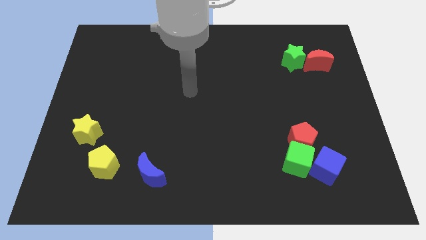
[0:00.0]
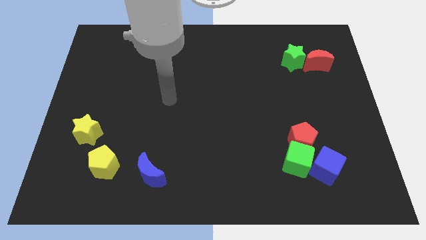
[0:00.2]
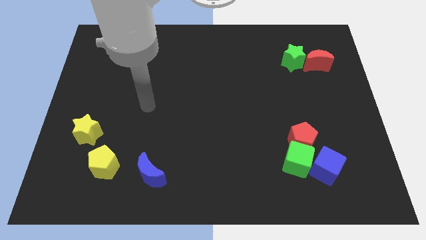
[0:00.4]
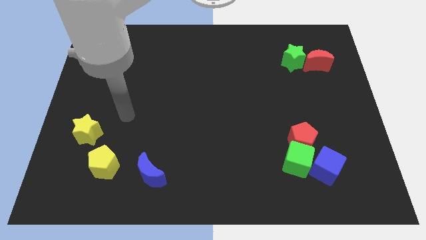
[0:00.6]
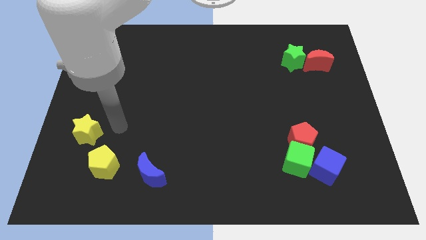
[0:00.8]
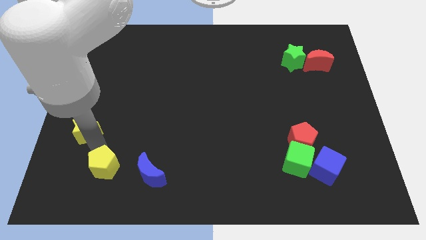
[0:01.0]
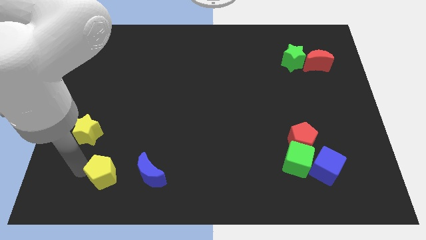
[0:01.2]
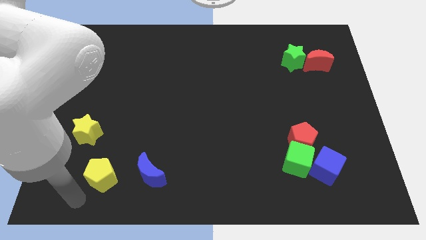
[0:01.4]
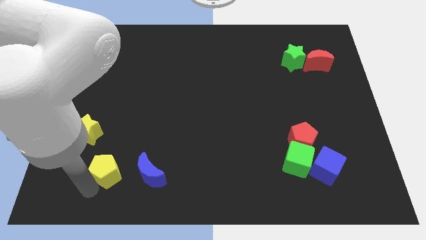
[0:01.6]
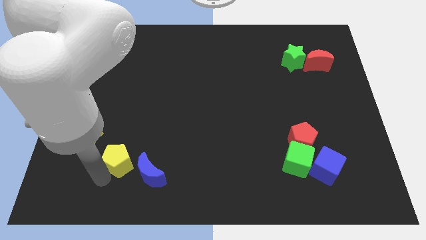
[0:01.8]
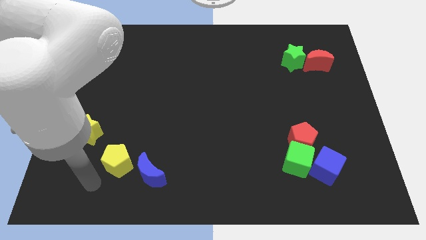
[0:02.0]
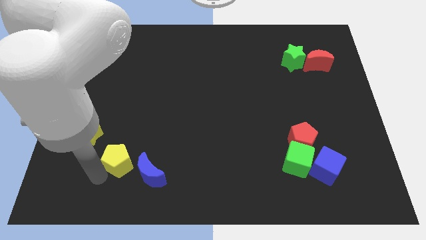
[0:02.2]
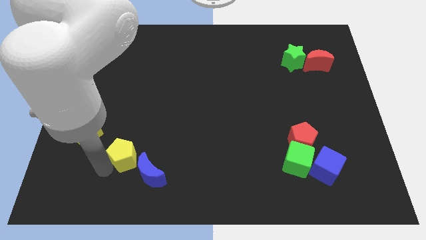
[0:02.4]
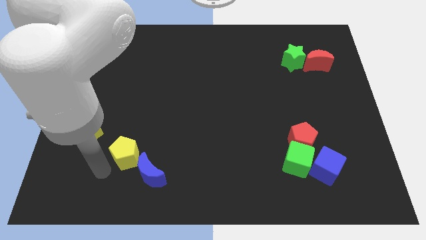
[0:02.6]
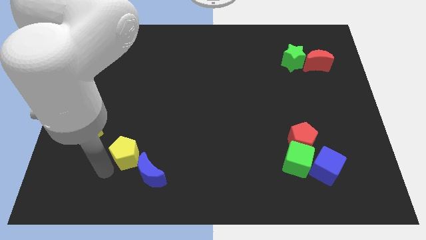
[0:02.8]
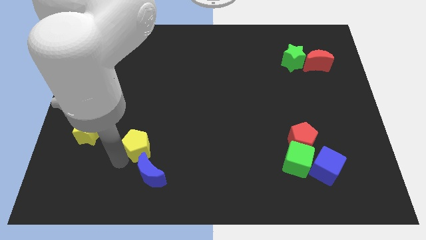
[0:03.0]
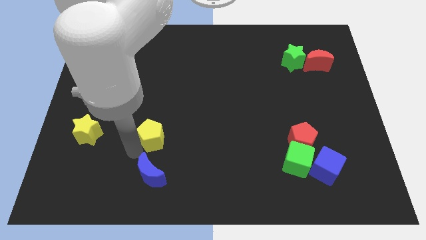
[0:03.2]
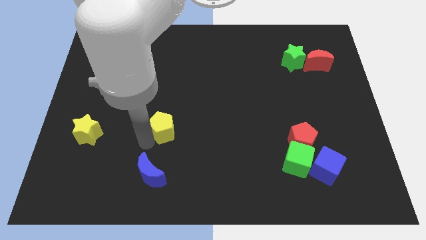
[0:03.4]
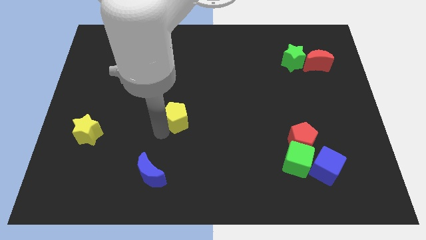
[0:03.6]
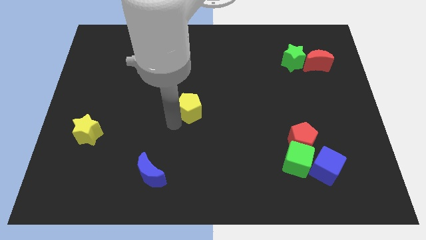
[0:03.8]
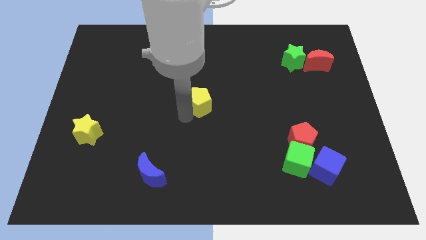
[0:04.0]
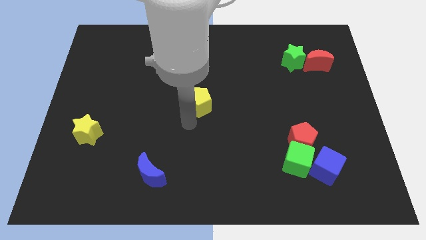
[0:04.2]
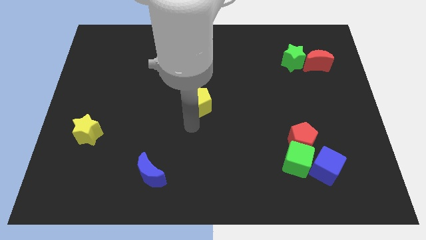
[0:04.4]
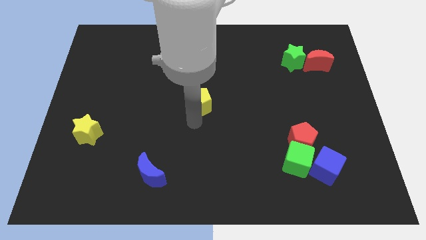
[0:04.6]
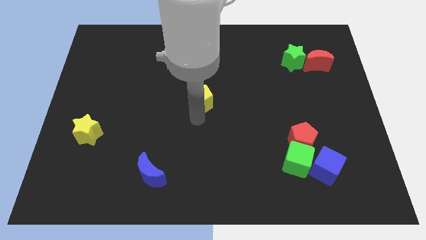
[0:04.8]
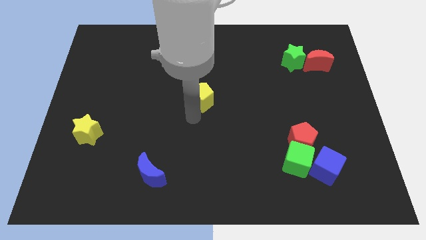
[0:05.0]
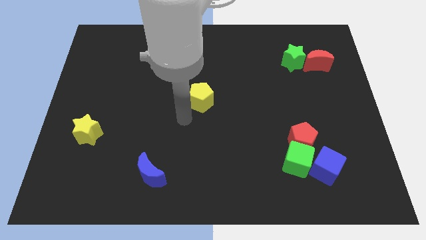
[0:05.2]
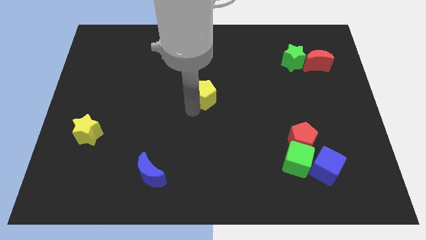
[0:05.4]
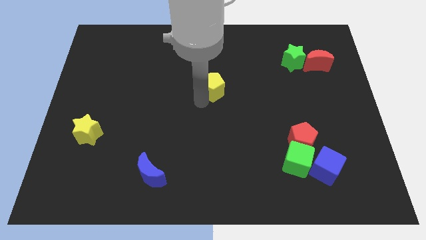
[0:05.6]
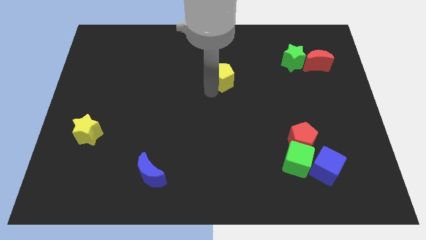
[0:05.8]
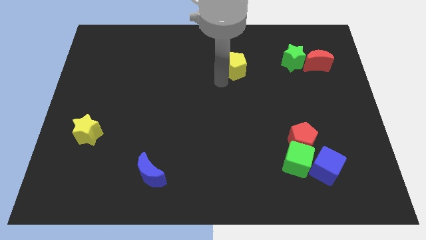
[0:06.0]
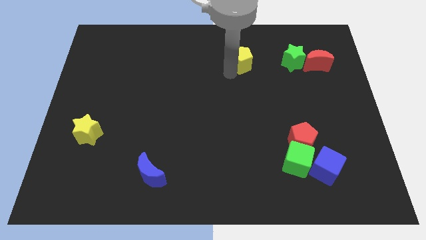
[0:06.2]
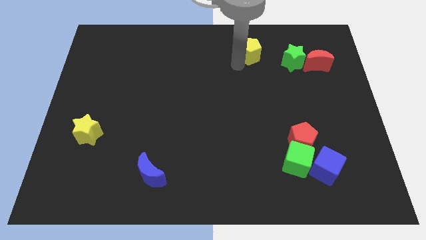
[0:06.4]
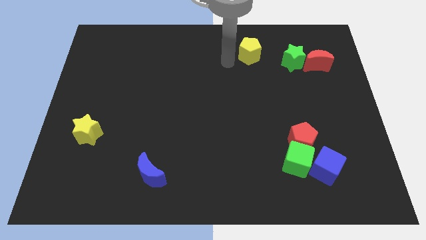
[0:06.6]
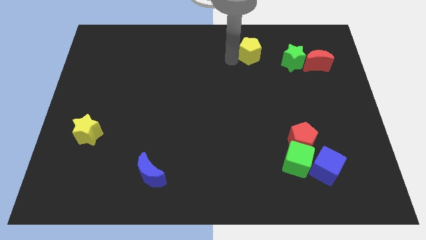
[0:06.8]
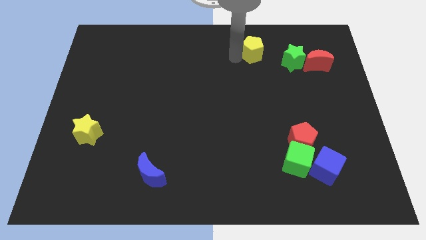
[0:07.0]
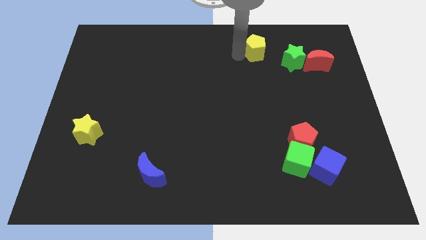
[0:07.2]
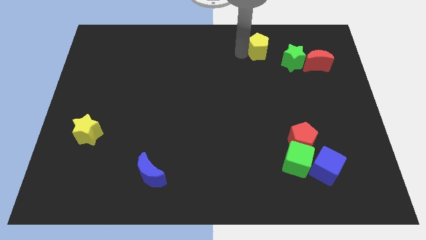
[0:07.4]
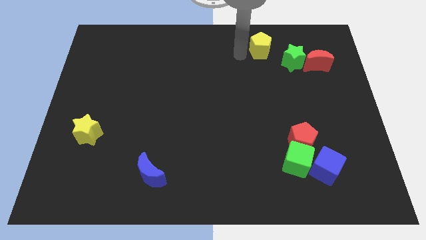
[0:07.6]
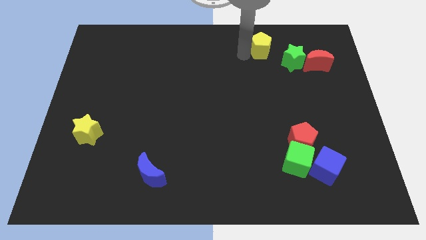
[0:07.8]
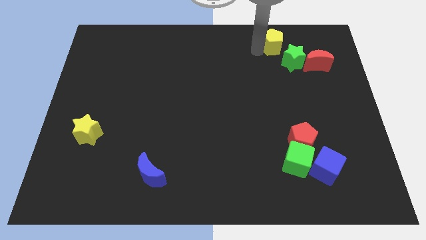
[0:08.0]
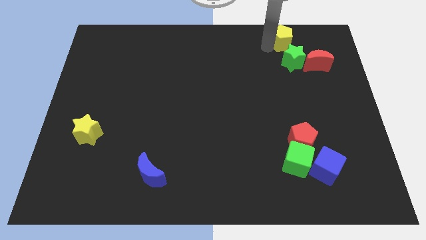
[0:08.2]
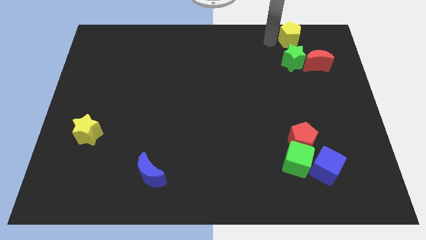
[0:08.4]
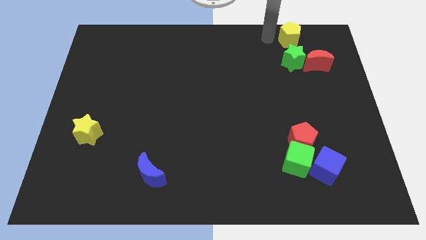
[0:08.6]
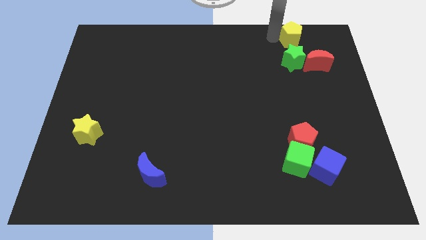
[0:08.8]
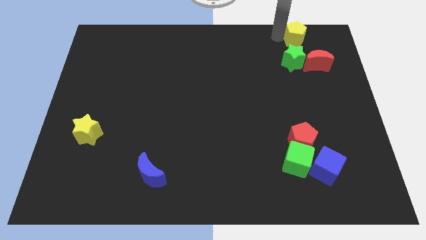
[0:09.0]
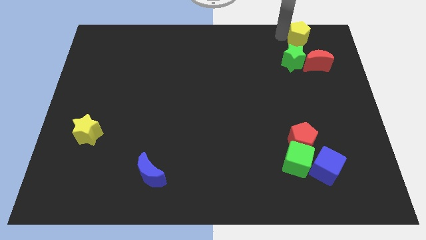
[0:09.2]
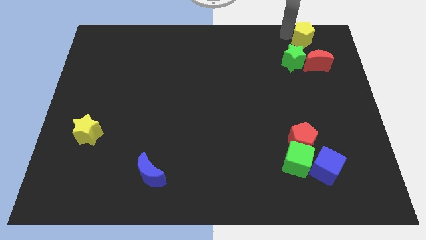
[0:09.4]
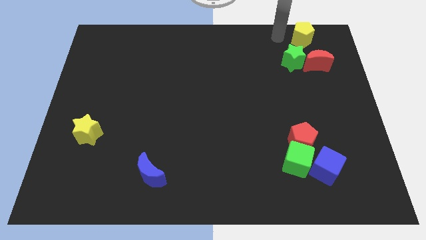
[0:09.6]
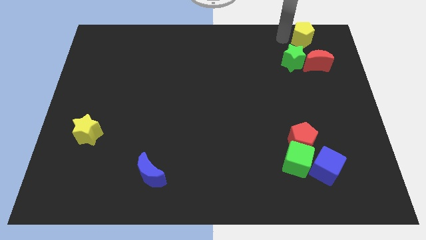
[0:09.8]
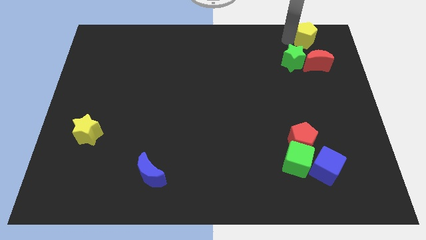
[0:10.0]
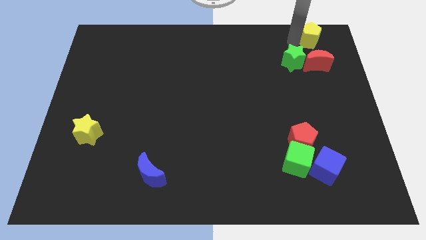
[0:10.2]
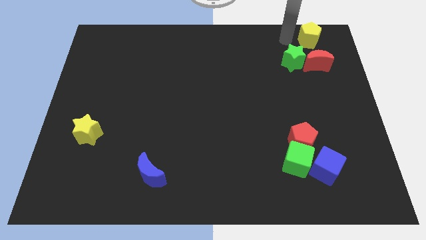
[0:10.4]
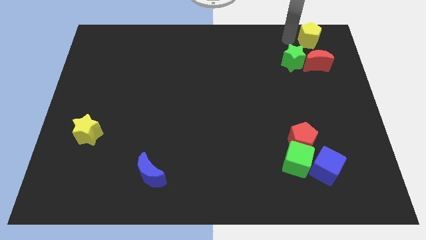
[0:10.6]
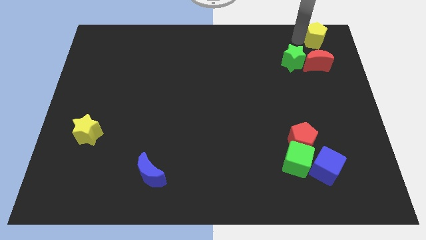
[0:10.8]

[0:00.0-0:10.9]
push the yellow pentagon to the top right corner

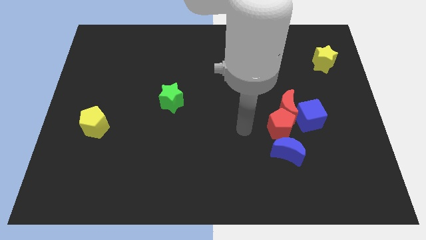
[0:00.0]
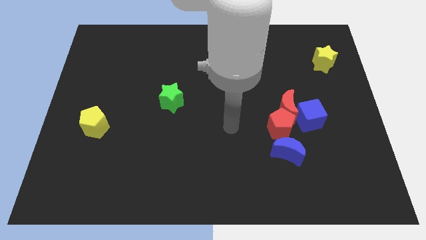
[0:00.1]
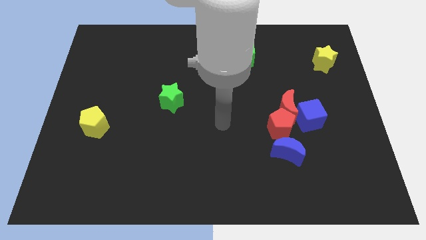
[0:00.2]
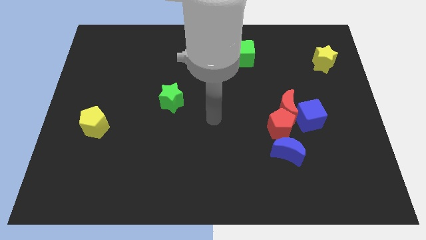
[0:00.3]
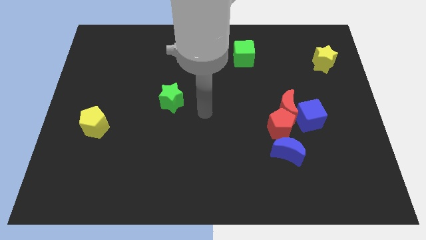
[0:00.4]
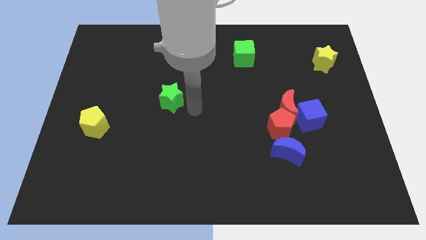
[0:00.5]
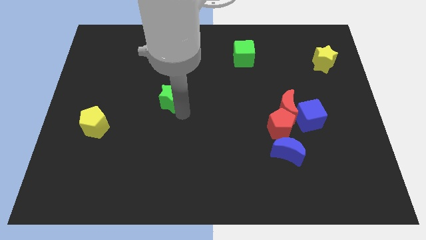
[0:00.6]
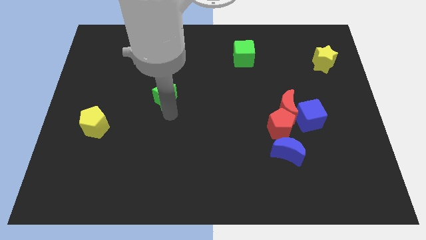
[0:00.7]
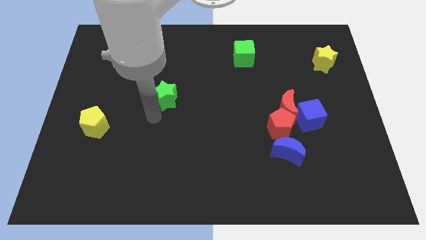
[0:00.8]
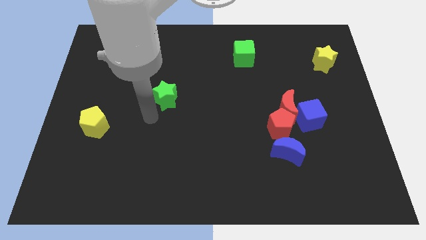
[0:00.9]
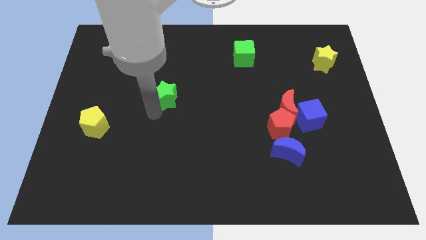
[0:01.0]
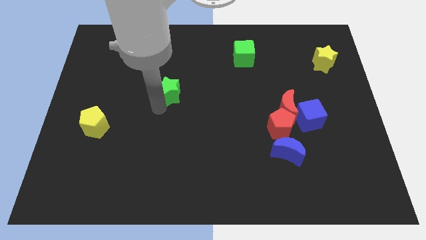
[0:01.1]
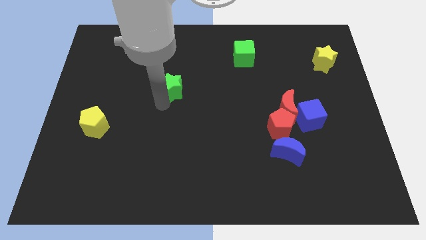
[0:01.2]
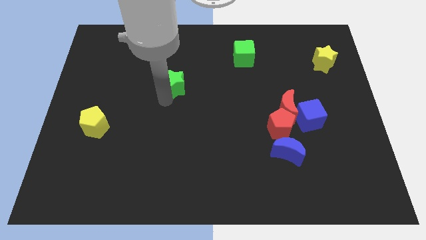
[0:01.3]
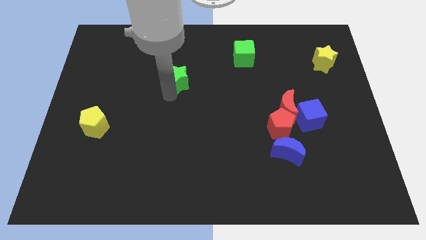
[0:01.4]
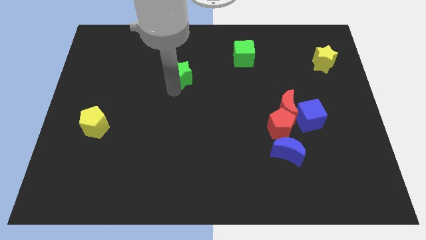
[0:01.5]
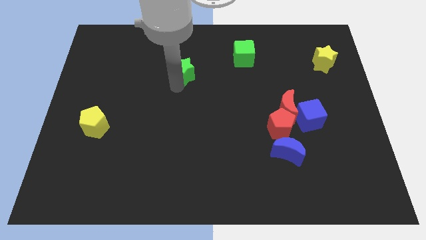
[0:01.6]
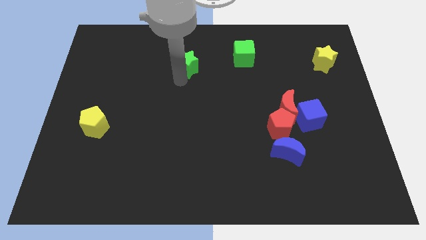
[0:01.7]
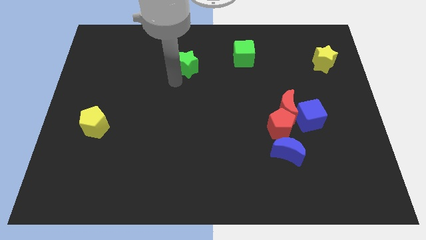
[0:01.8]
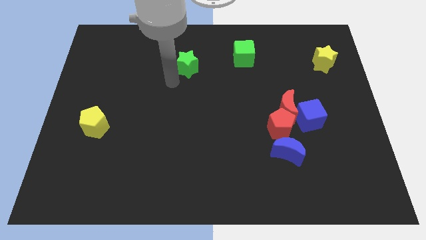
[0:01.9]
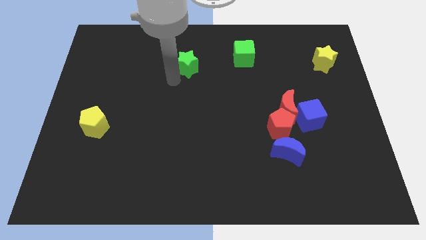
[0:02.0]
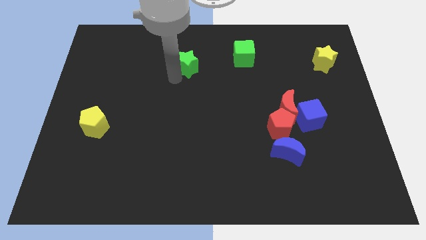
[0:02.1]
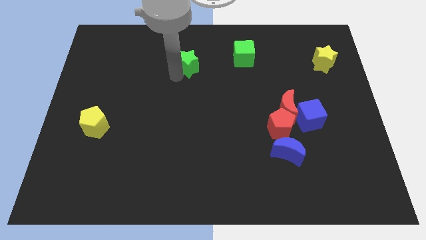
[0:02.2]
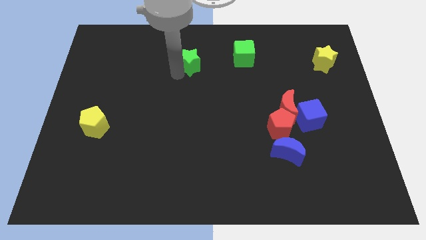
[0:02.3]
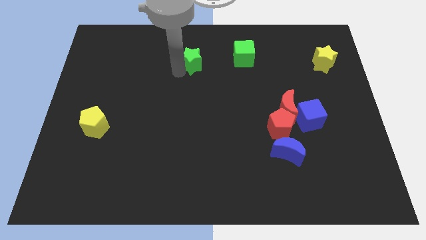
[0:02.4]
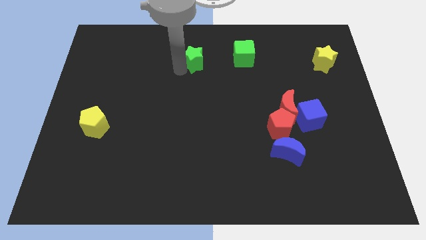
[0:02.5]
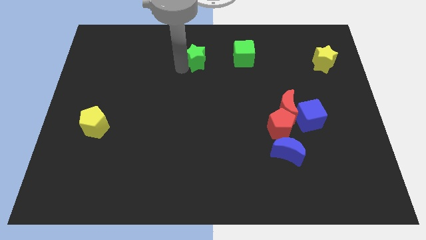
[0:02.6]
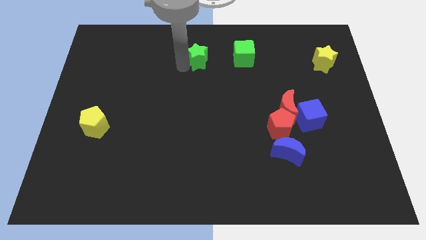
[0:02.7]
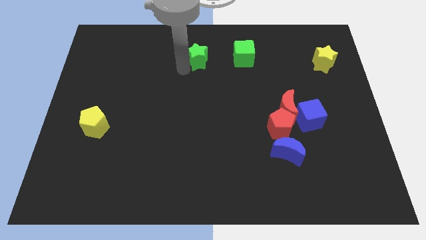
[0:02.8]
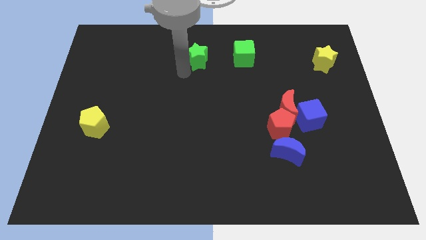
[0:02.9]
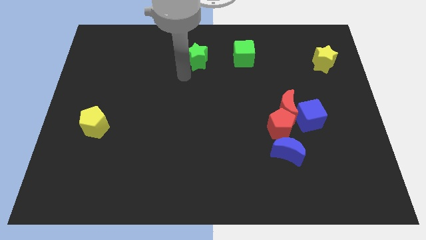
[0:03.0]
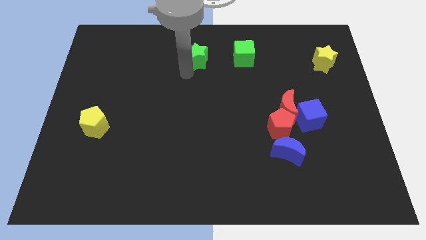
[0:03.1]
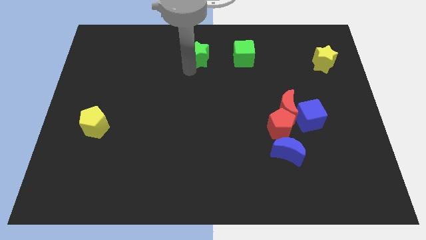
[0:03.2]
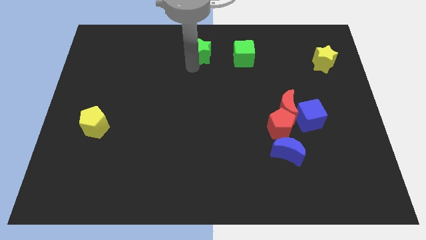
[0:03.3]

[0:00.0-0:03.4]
move the green star to the top side
